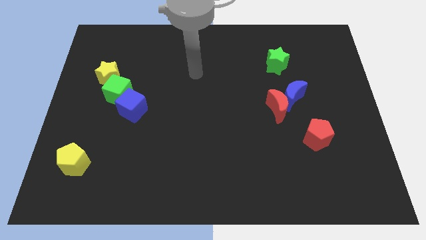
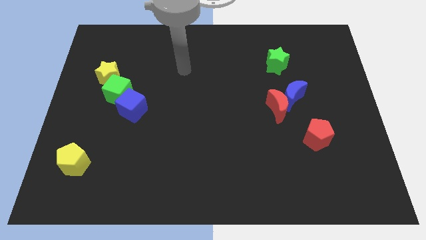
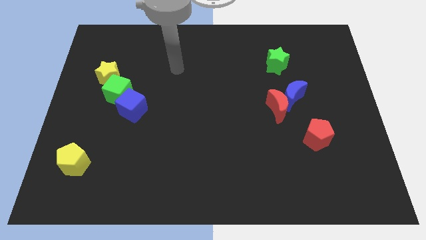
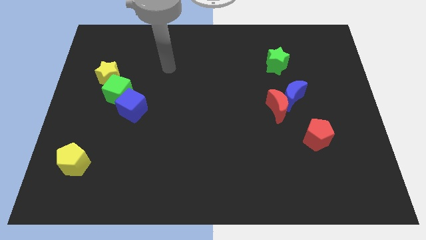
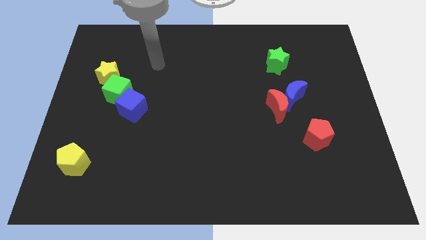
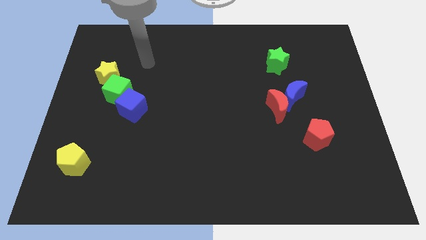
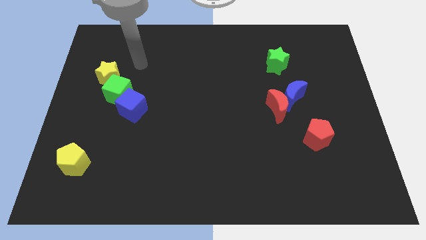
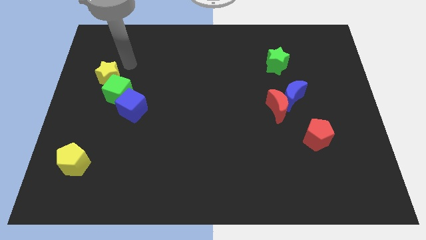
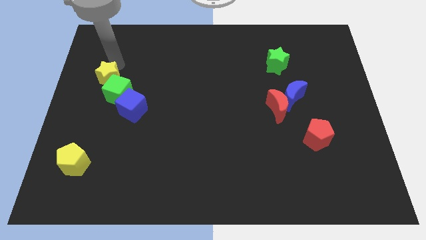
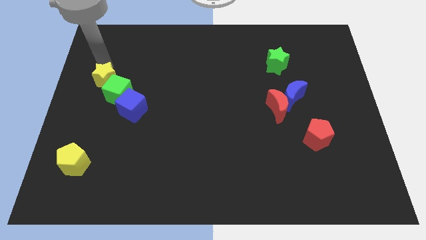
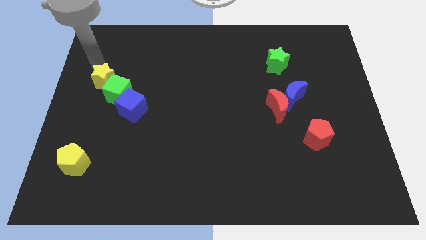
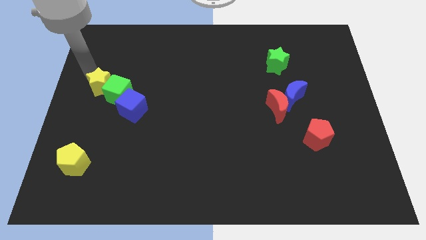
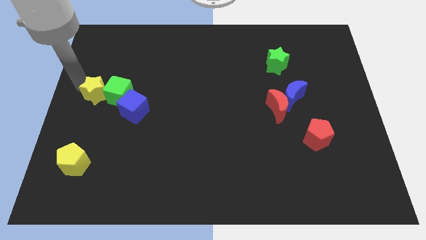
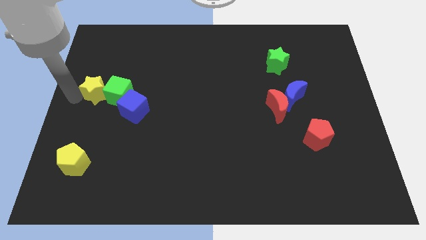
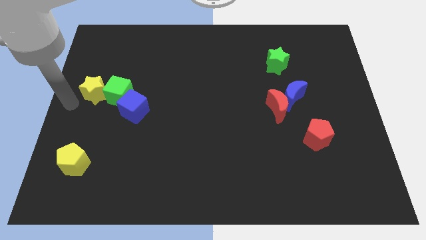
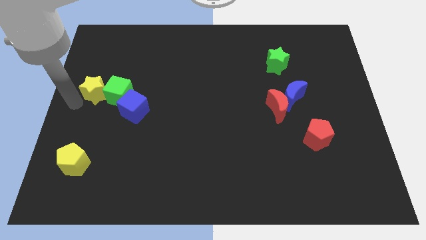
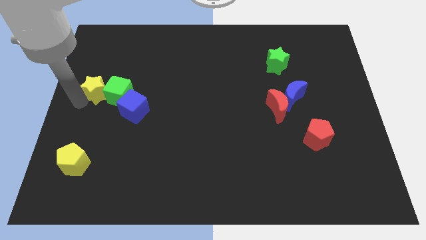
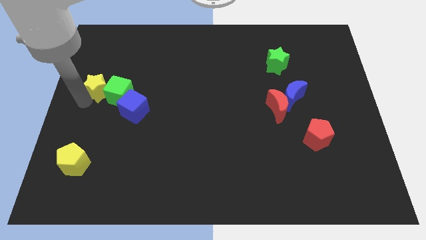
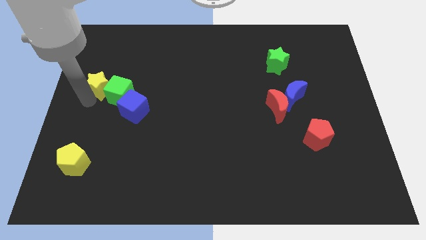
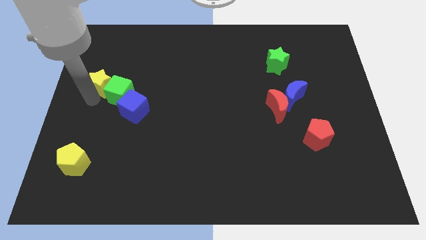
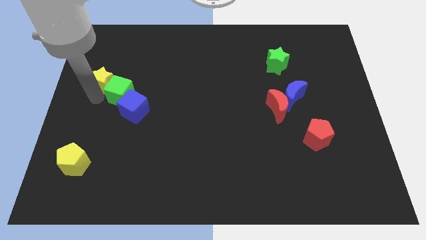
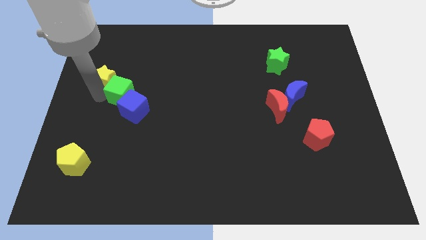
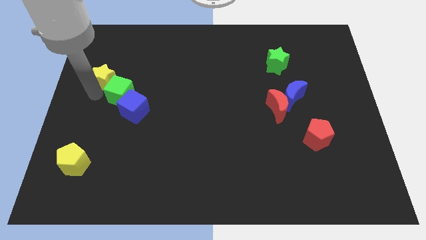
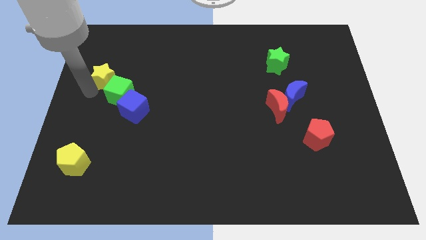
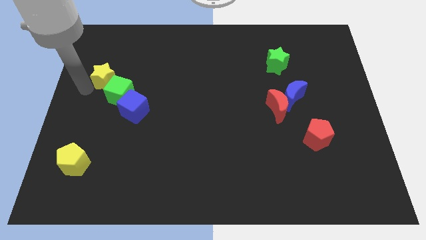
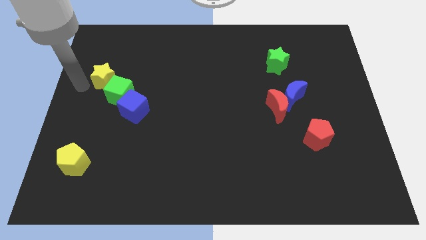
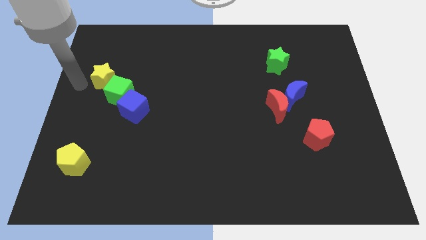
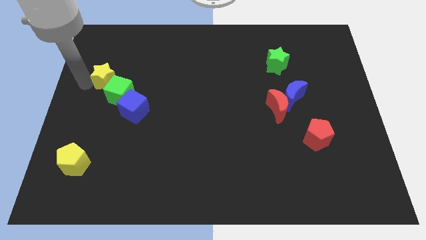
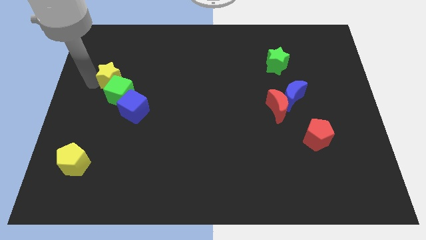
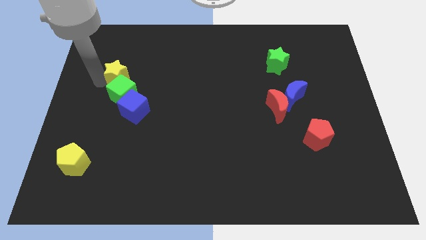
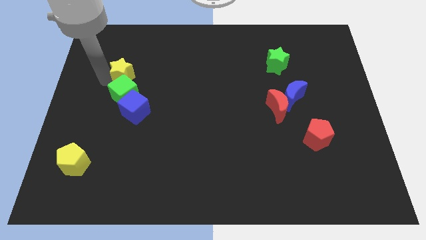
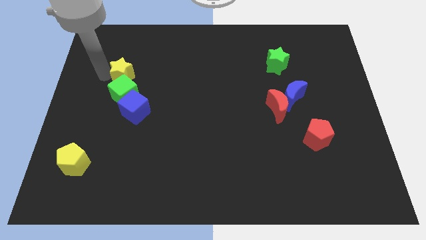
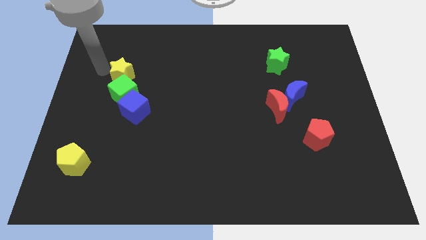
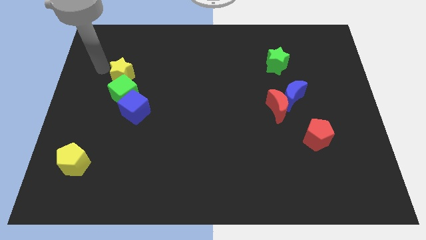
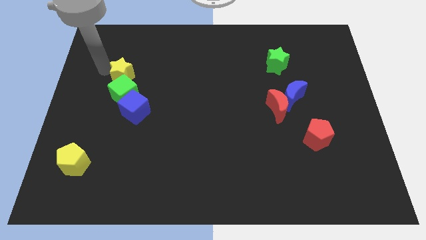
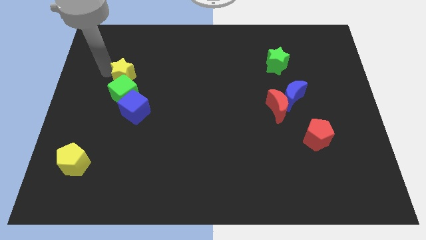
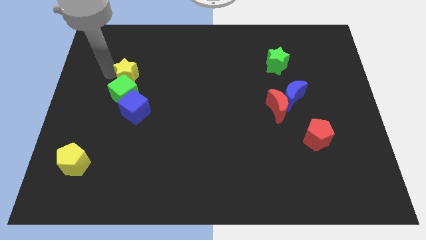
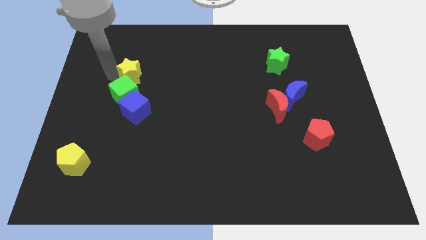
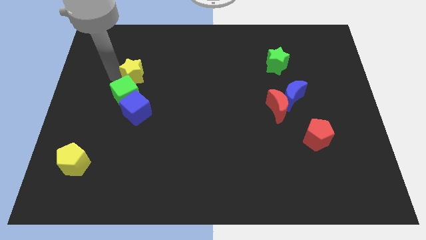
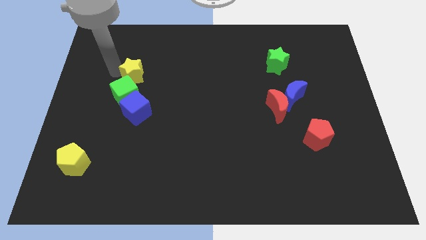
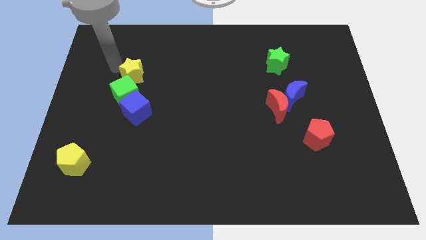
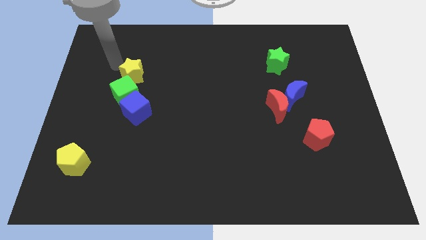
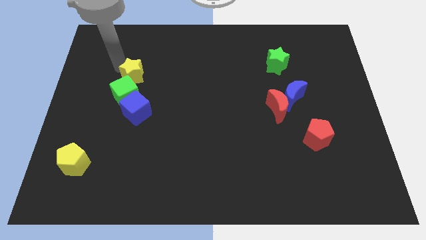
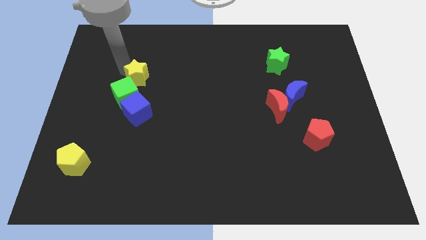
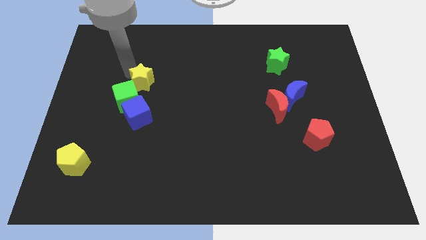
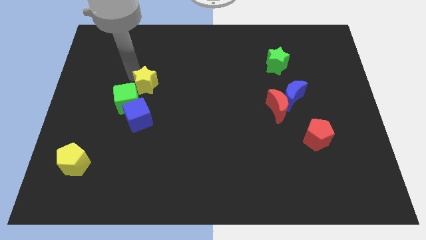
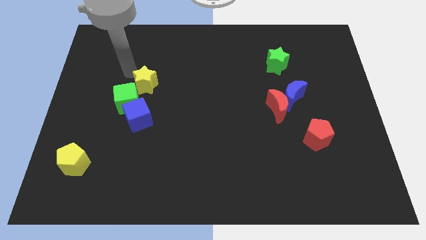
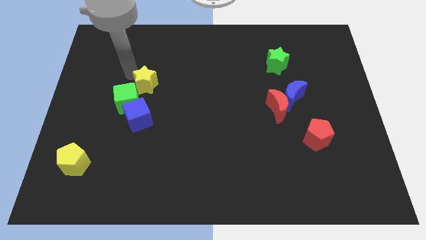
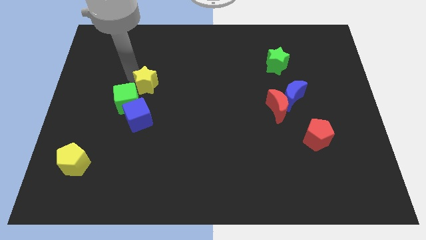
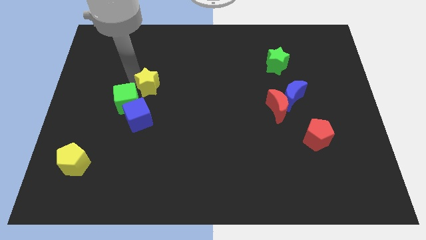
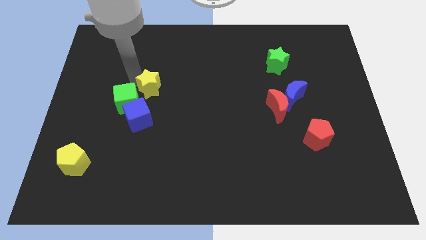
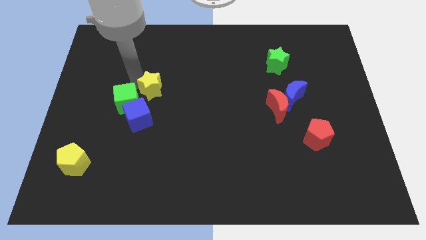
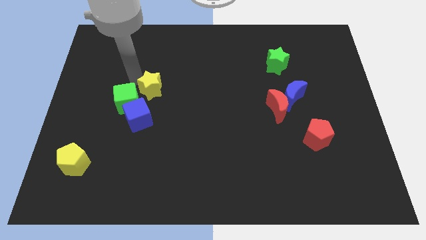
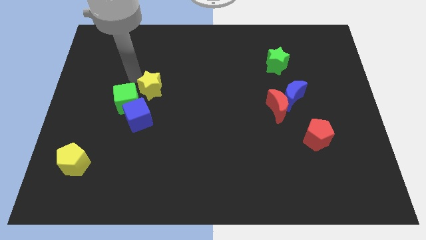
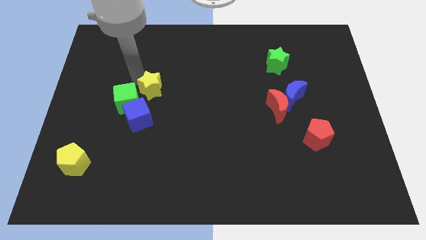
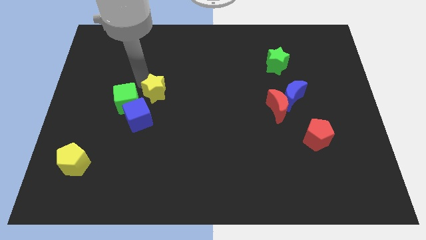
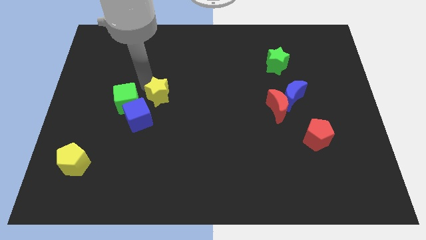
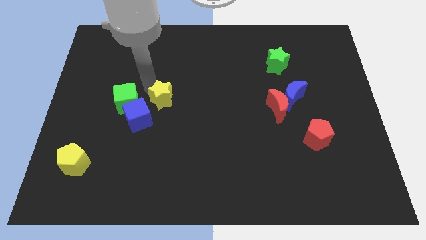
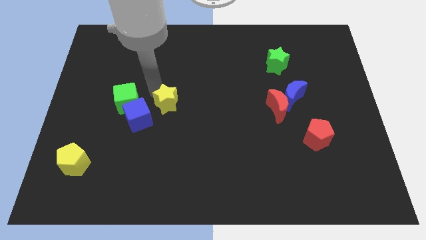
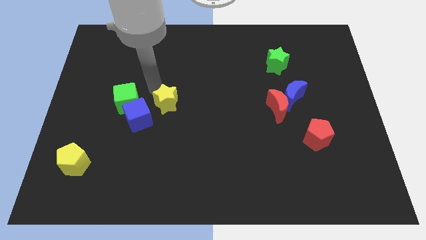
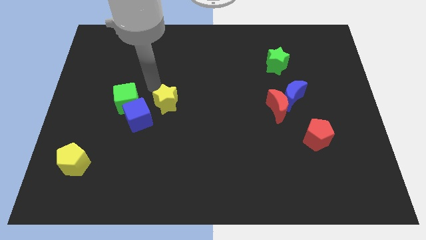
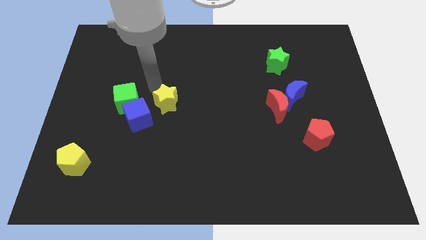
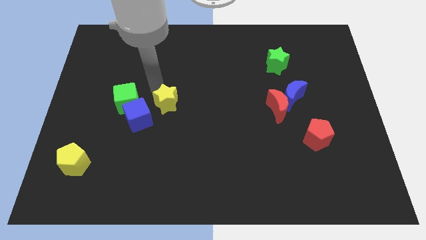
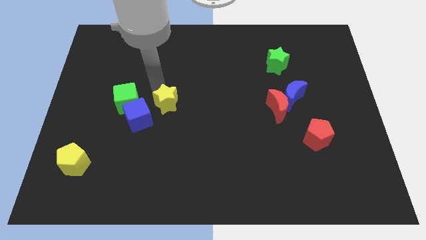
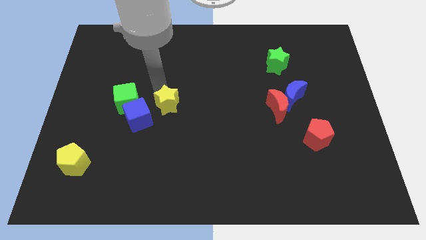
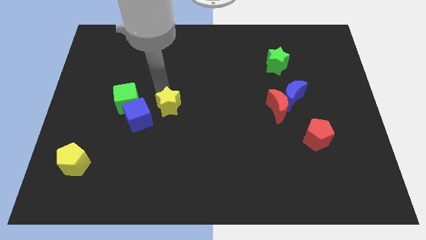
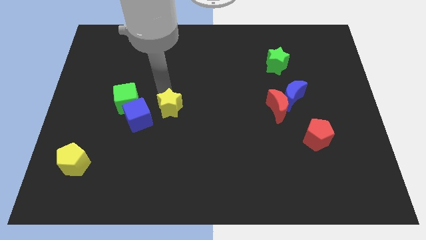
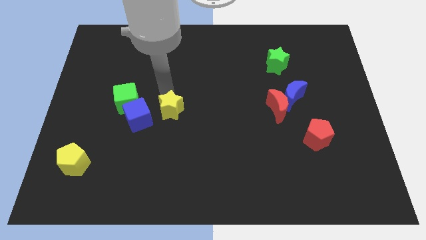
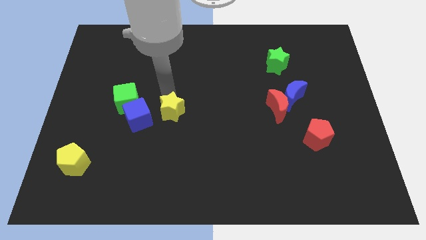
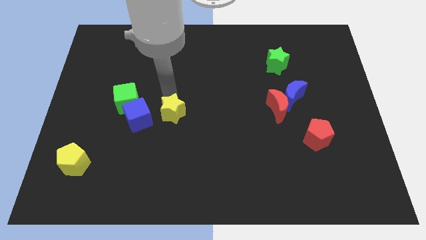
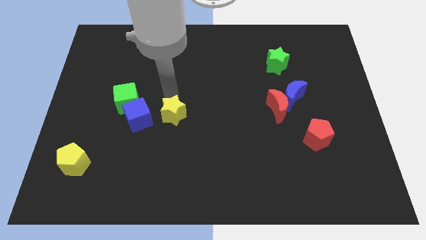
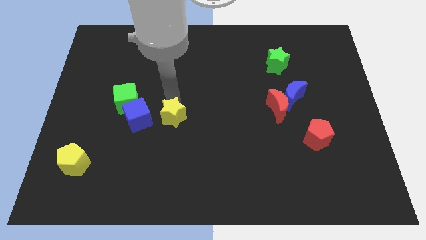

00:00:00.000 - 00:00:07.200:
slide the yellow star downwards and right diagonally

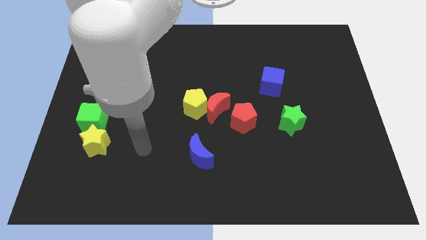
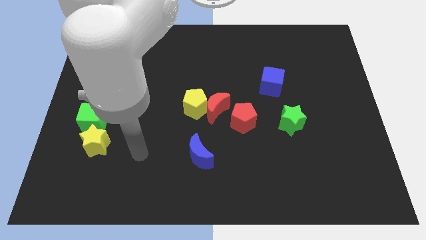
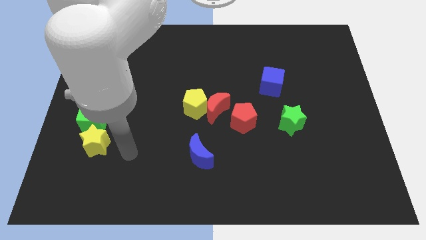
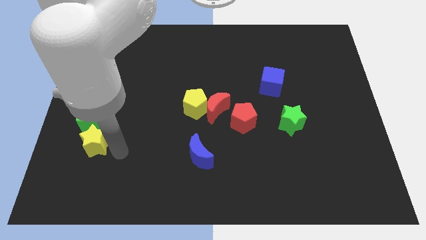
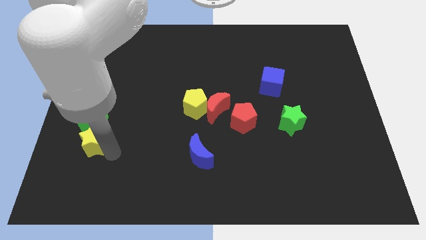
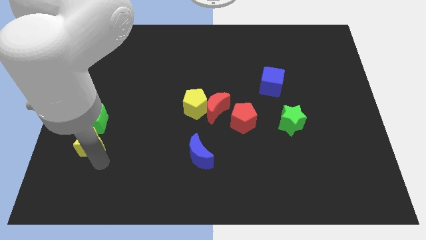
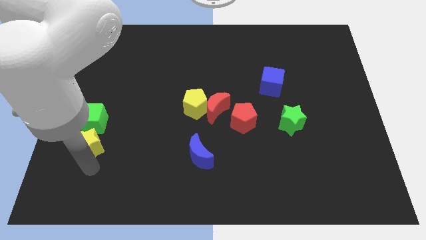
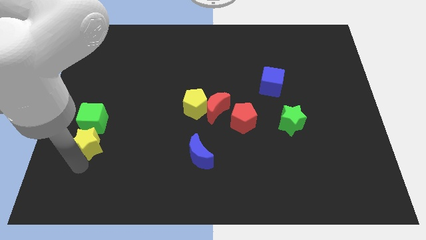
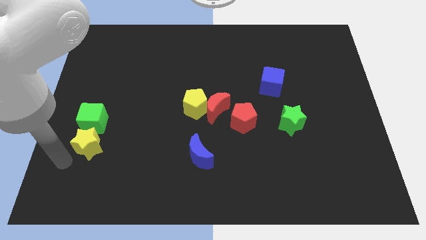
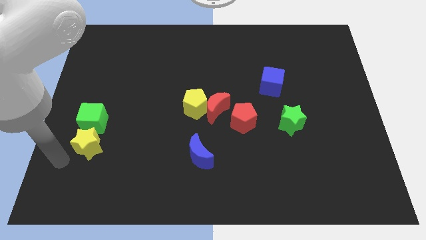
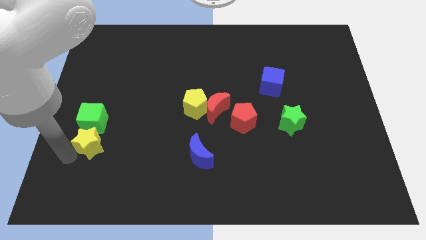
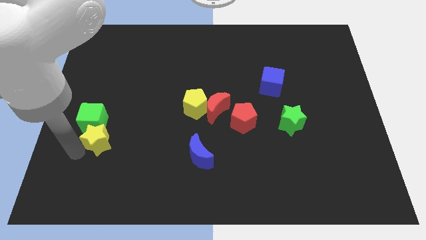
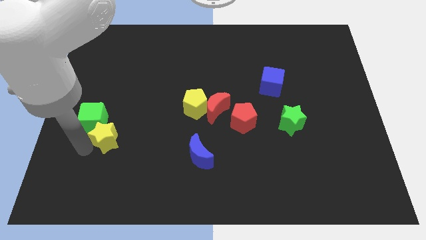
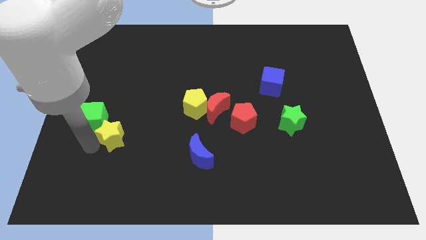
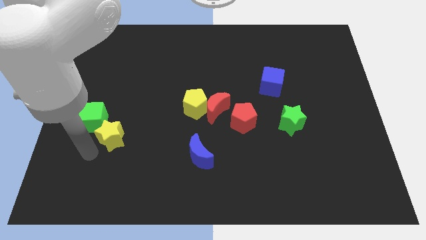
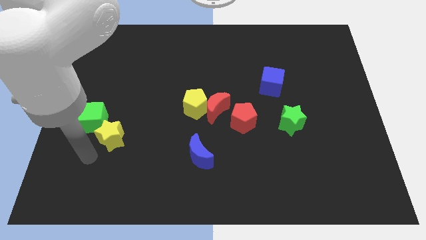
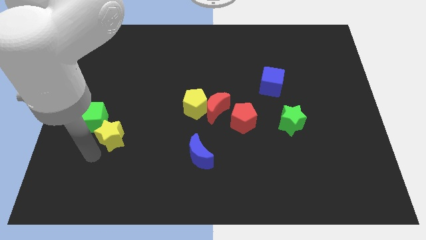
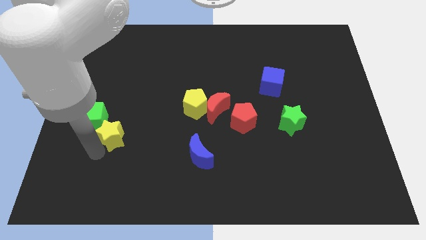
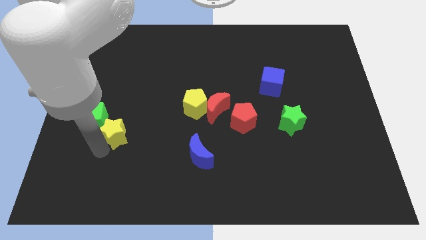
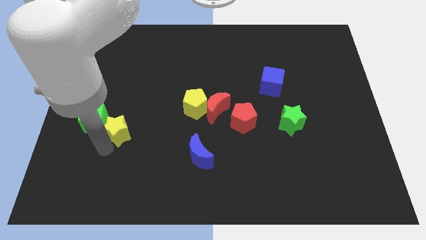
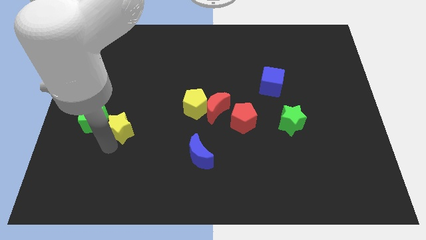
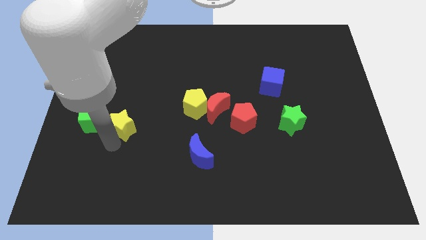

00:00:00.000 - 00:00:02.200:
slide the yellow star upwards and right a little bit
